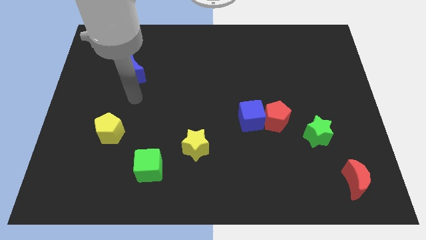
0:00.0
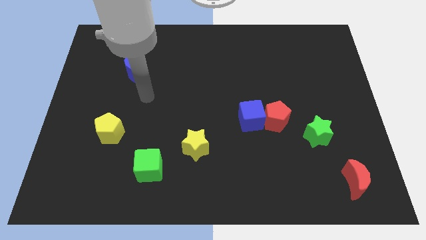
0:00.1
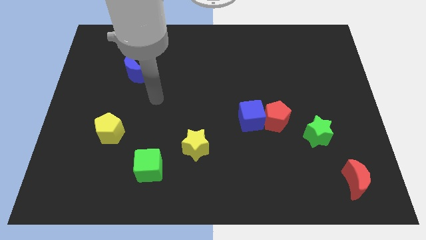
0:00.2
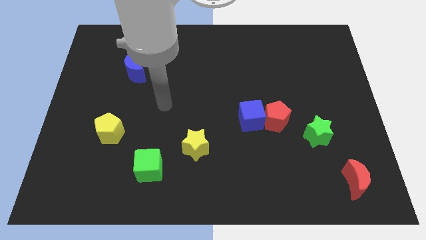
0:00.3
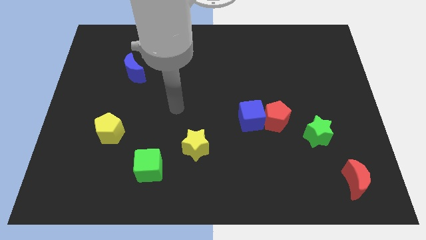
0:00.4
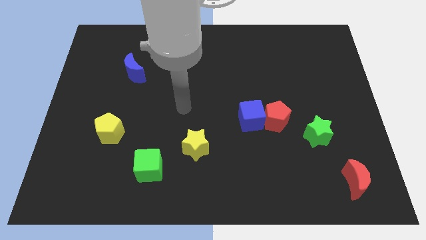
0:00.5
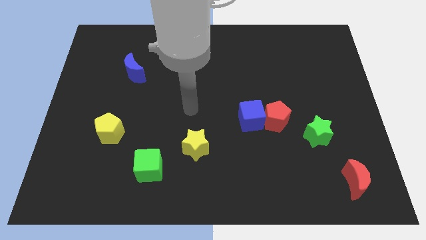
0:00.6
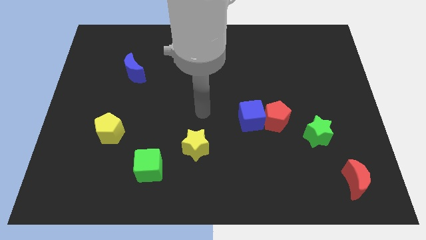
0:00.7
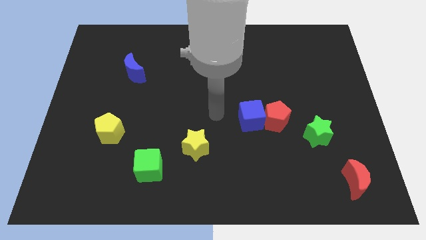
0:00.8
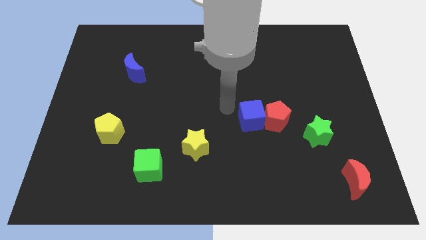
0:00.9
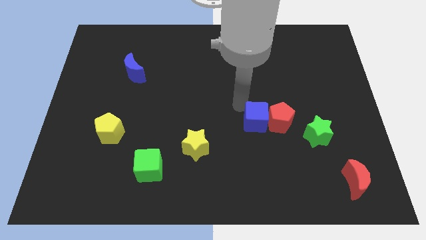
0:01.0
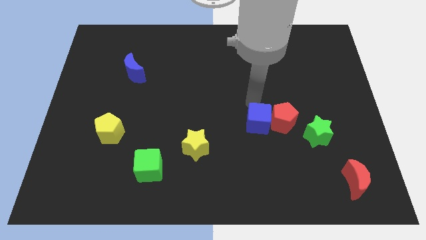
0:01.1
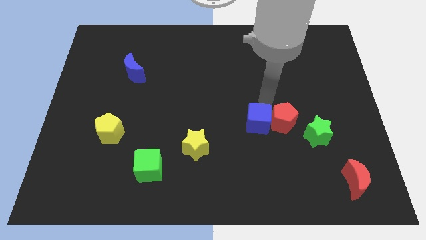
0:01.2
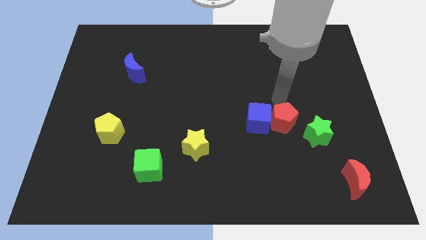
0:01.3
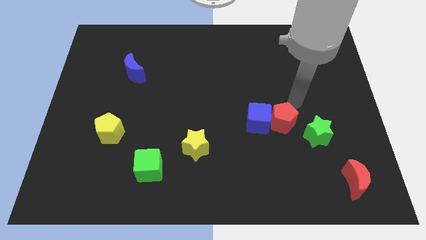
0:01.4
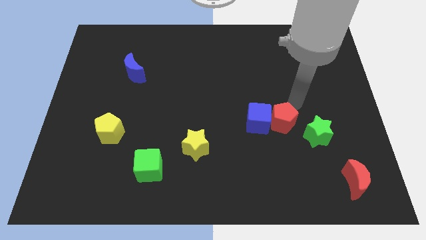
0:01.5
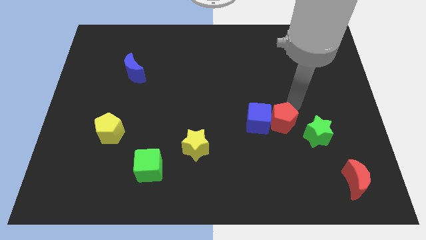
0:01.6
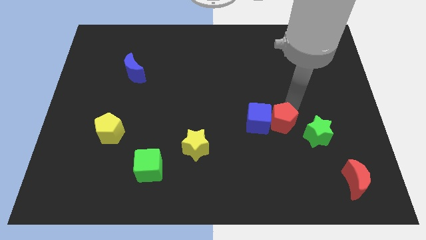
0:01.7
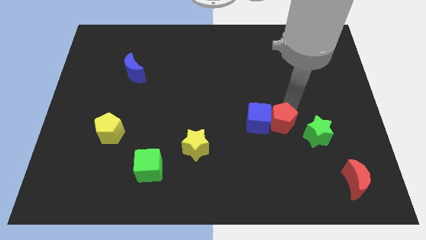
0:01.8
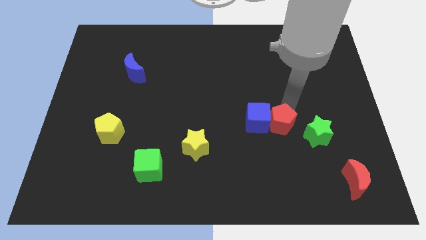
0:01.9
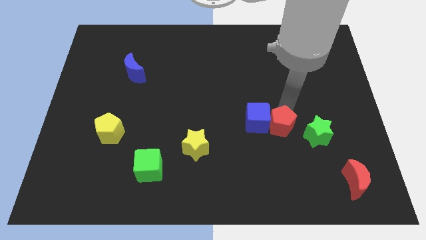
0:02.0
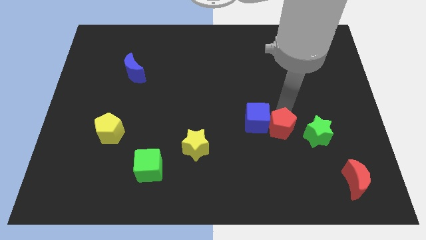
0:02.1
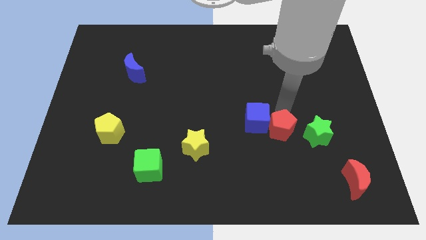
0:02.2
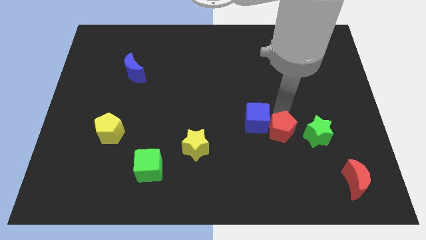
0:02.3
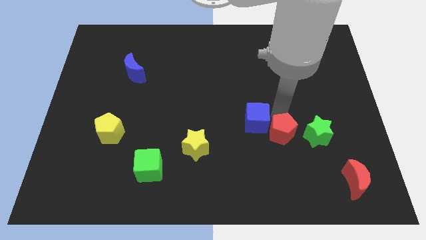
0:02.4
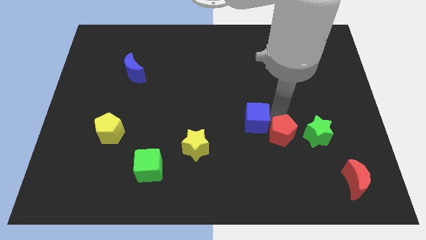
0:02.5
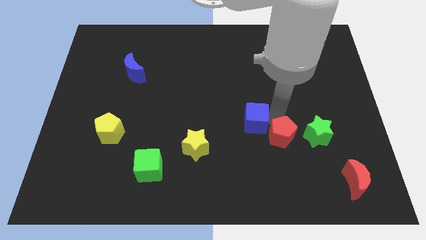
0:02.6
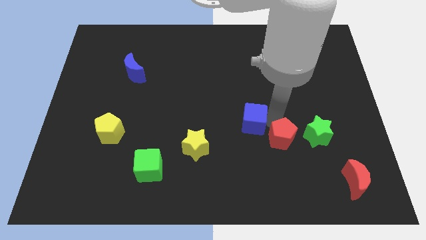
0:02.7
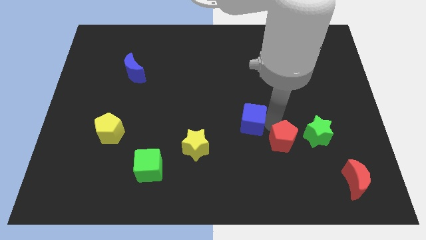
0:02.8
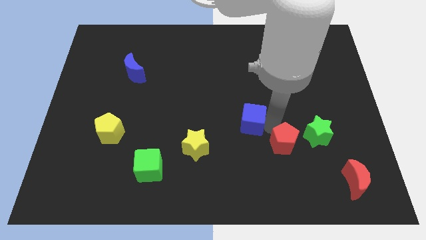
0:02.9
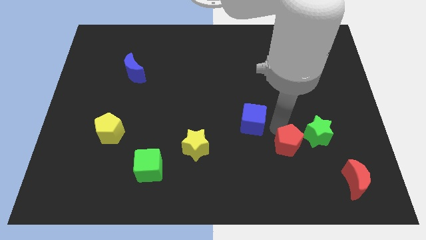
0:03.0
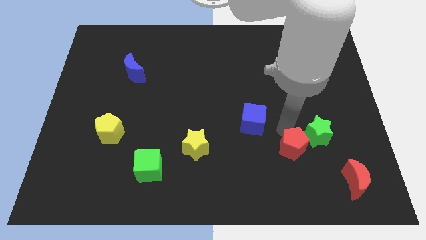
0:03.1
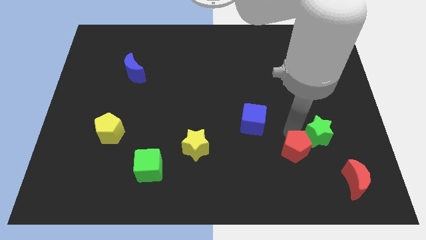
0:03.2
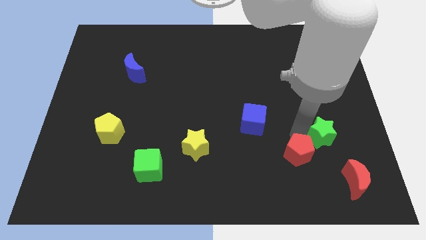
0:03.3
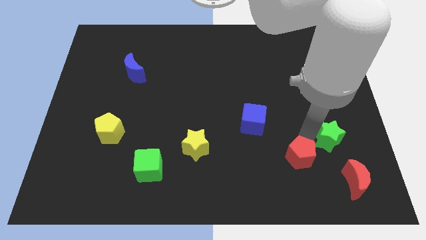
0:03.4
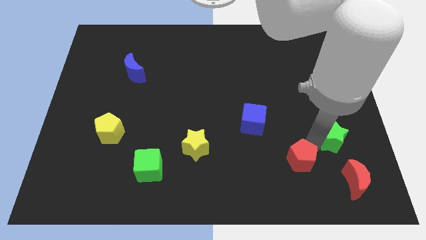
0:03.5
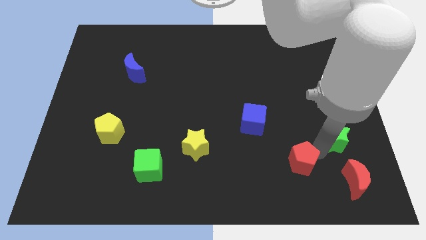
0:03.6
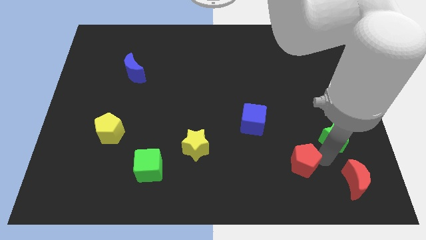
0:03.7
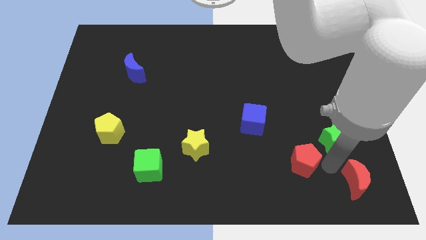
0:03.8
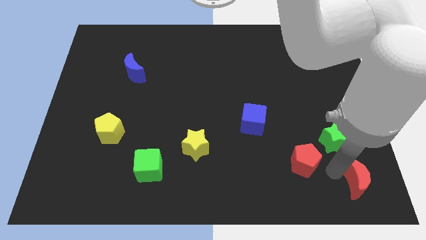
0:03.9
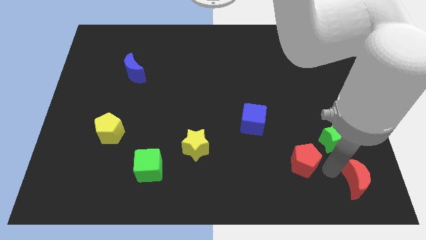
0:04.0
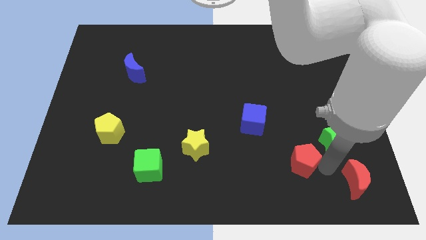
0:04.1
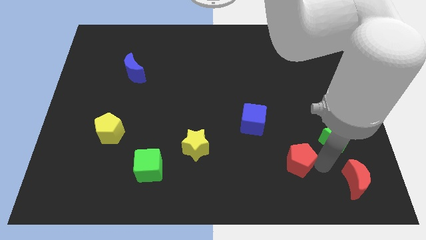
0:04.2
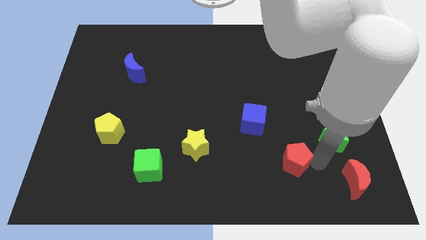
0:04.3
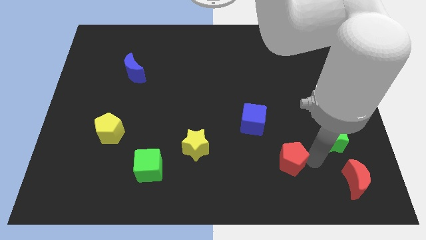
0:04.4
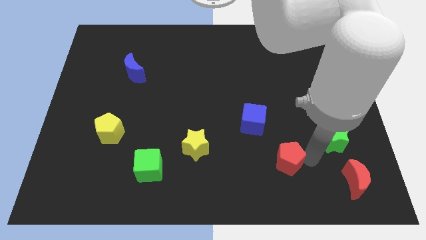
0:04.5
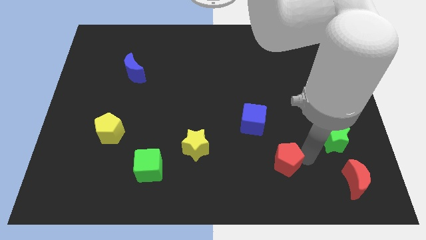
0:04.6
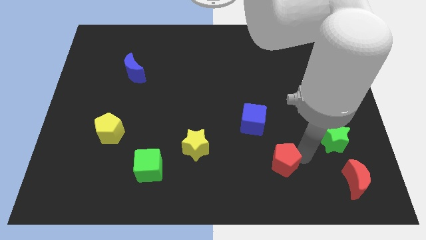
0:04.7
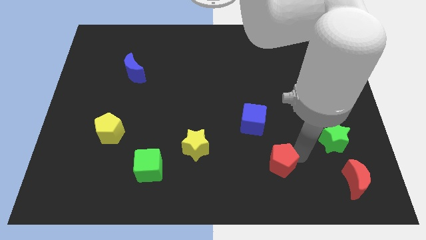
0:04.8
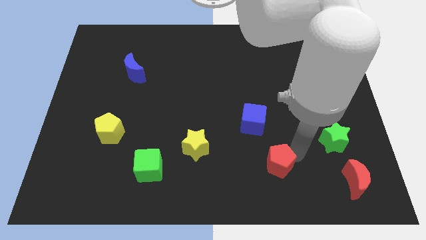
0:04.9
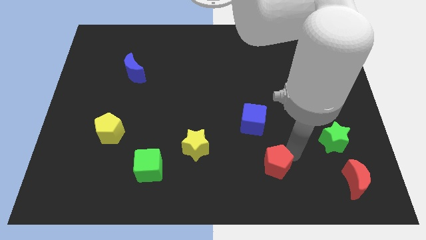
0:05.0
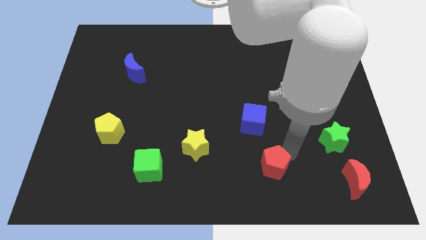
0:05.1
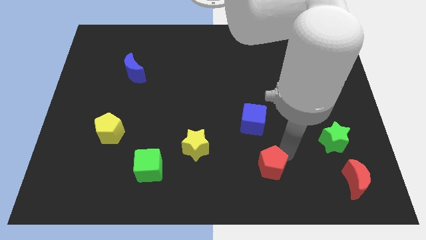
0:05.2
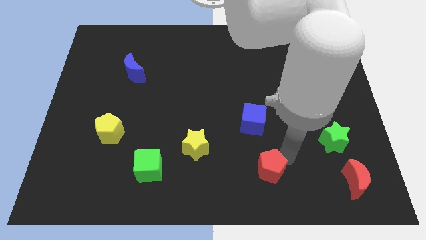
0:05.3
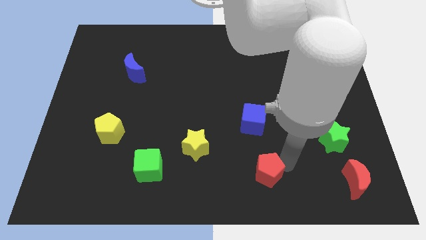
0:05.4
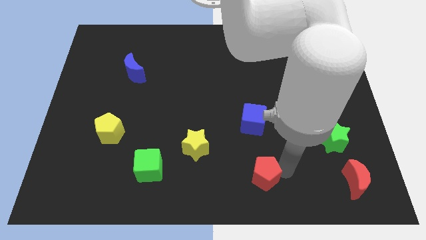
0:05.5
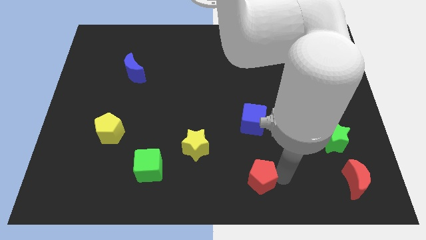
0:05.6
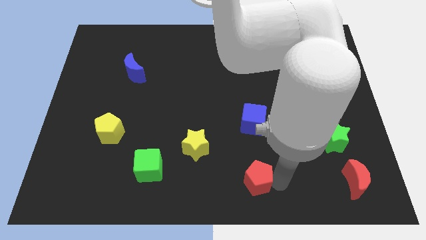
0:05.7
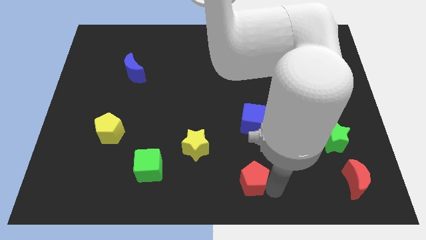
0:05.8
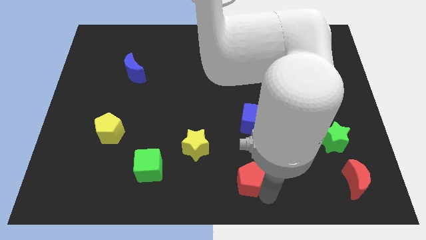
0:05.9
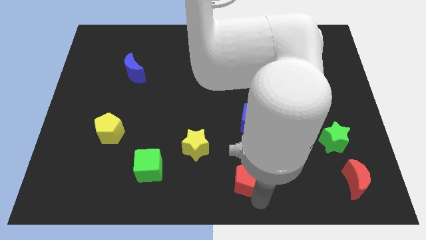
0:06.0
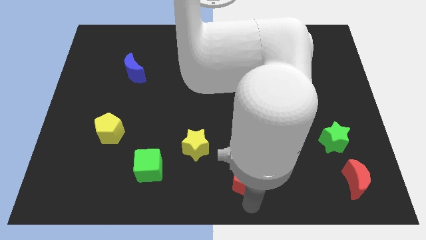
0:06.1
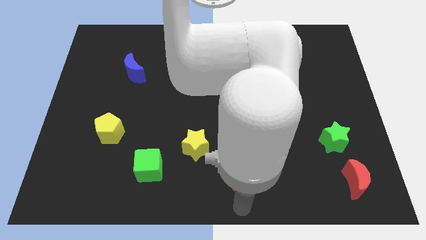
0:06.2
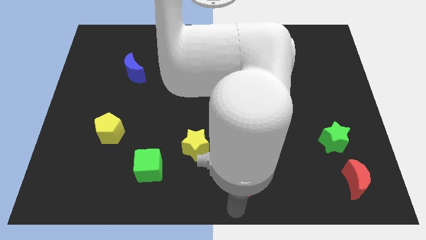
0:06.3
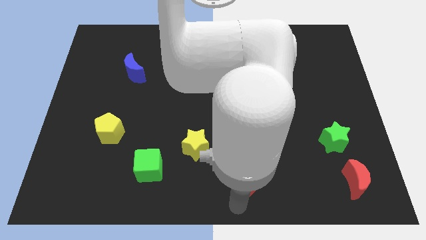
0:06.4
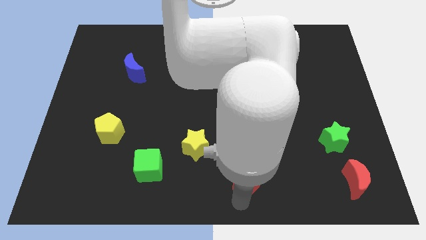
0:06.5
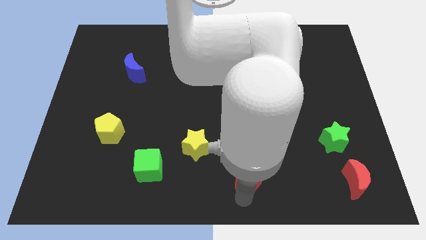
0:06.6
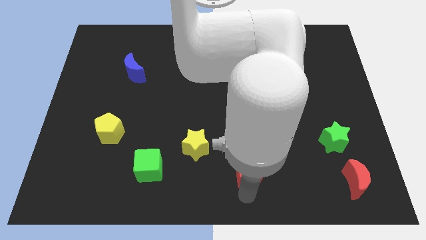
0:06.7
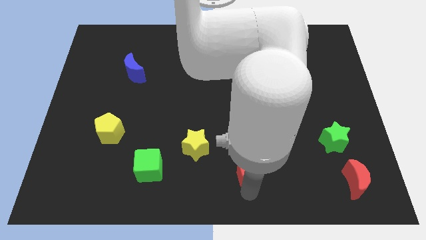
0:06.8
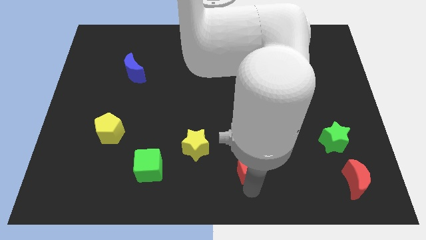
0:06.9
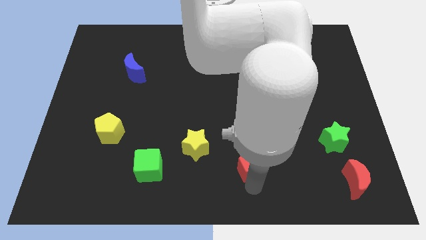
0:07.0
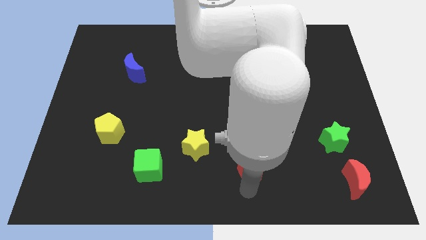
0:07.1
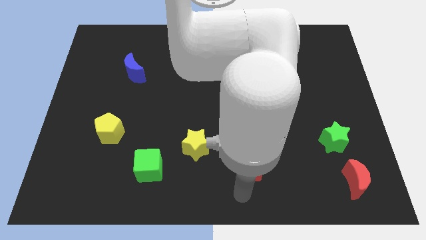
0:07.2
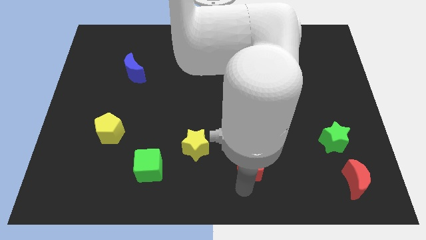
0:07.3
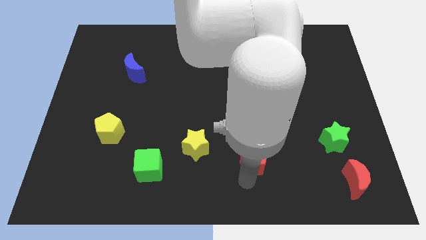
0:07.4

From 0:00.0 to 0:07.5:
push the red pentagon right of the yellow star
